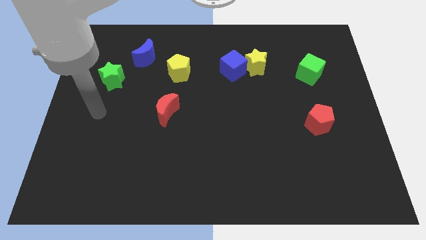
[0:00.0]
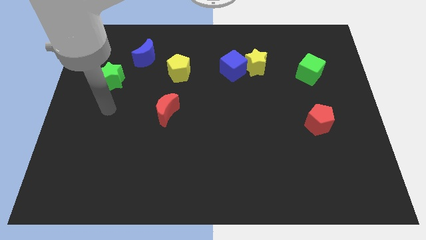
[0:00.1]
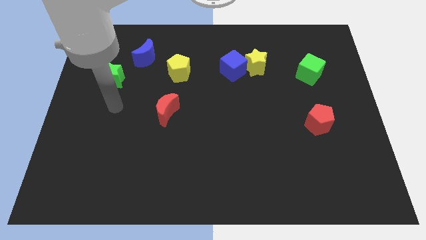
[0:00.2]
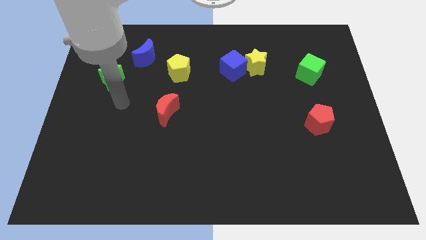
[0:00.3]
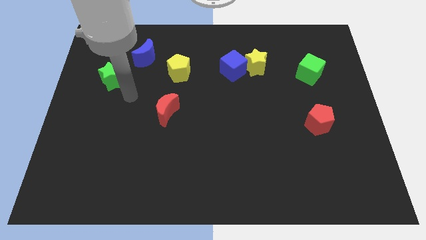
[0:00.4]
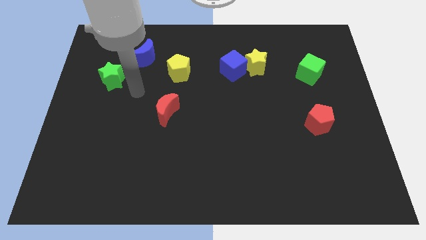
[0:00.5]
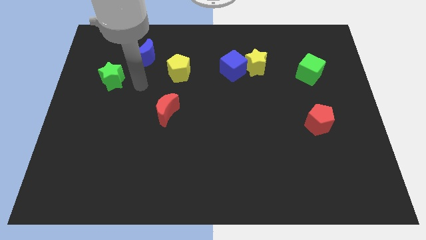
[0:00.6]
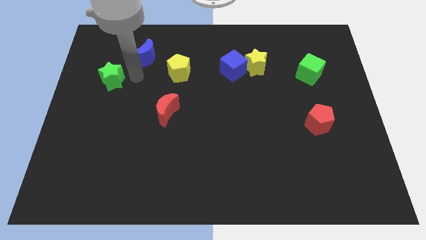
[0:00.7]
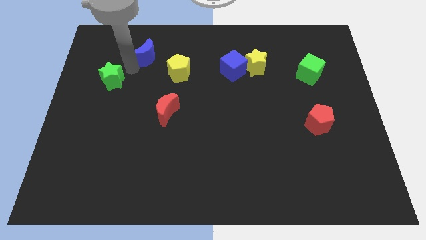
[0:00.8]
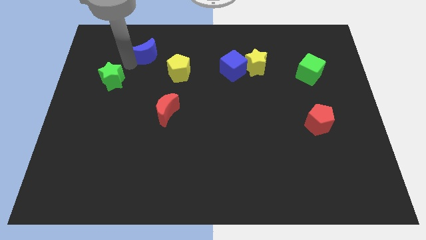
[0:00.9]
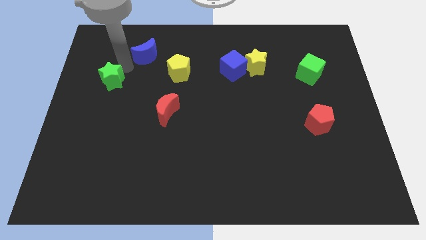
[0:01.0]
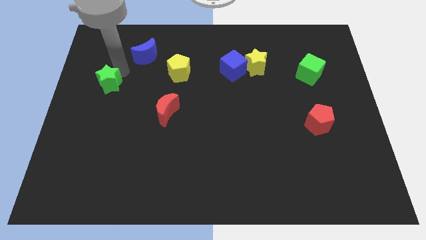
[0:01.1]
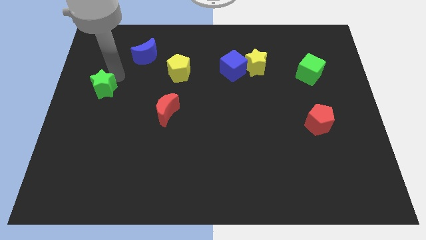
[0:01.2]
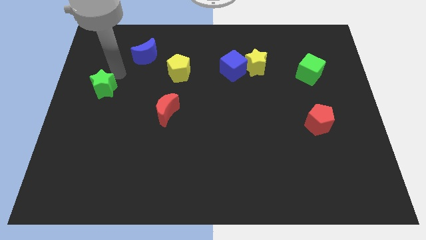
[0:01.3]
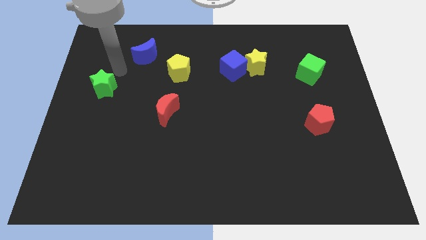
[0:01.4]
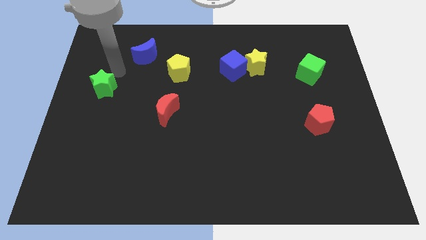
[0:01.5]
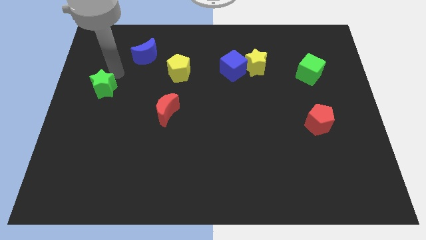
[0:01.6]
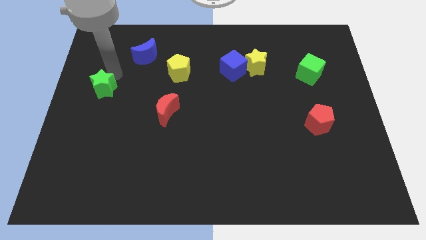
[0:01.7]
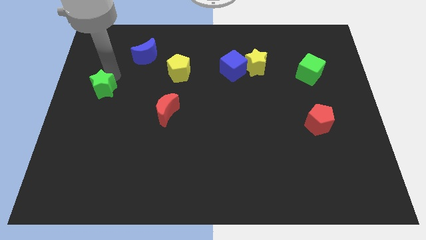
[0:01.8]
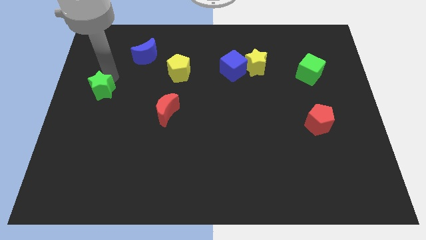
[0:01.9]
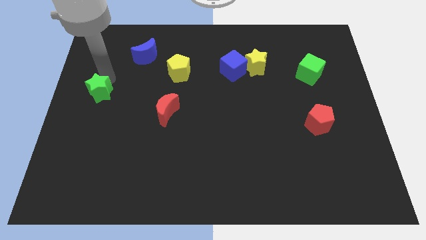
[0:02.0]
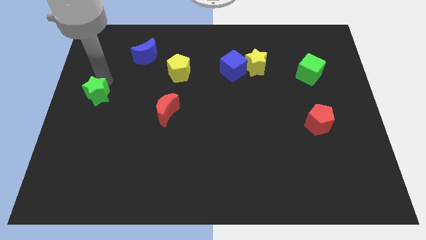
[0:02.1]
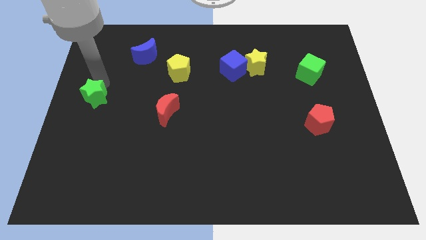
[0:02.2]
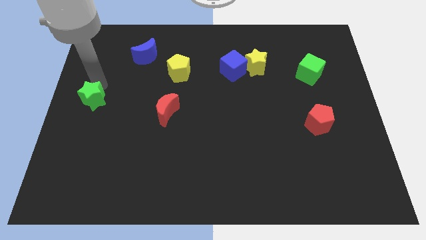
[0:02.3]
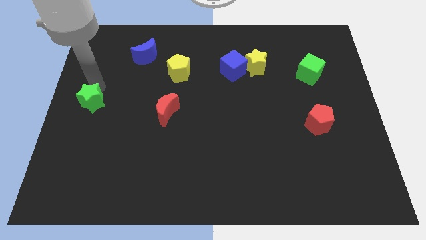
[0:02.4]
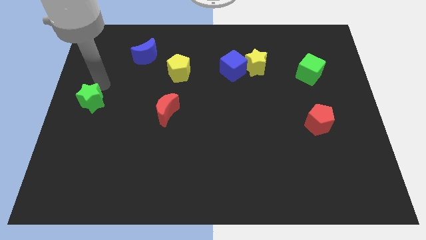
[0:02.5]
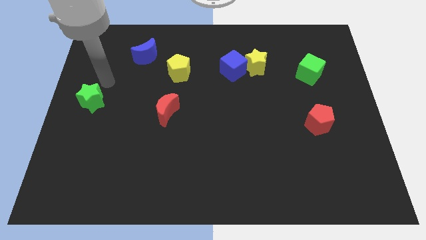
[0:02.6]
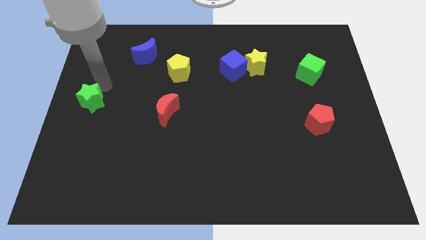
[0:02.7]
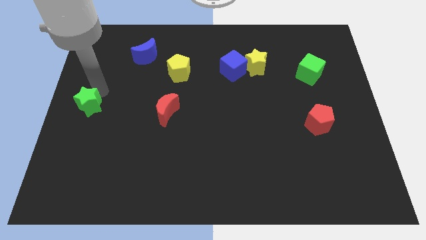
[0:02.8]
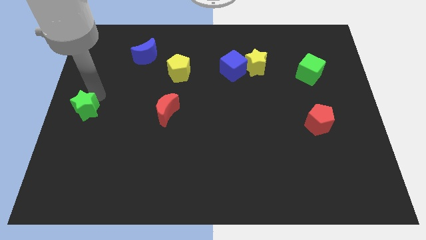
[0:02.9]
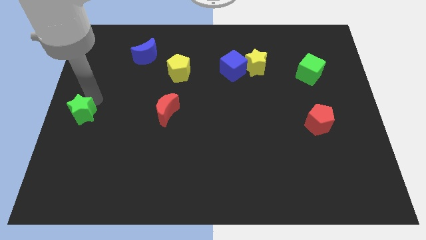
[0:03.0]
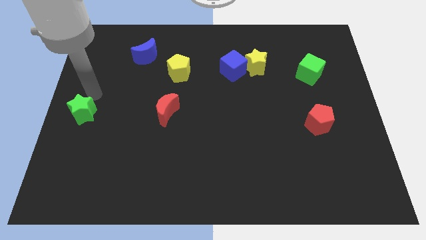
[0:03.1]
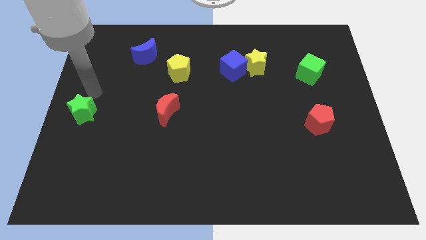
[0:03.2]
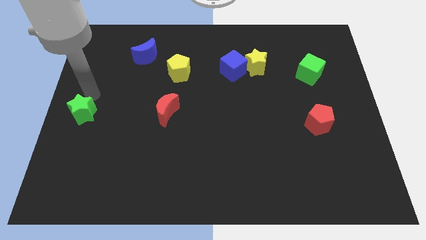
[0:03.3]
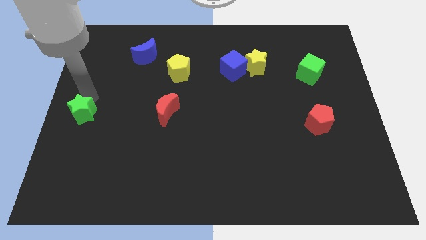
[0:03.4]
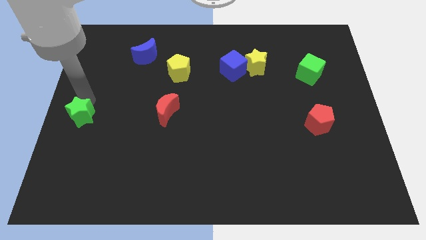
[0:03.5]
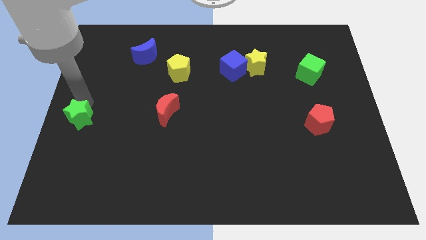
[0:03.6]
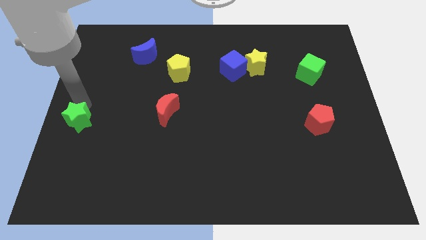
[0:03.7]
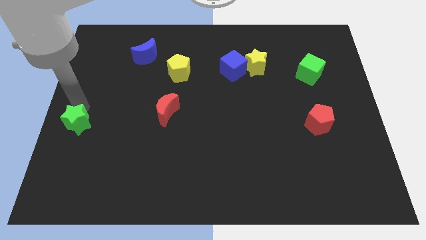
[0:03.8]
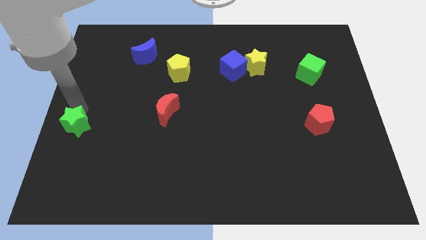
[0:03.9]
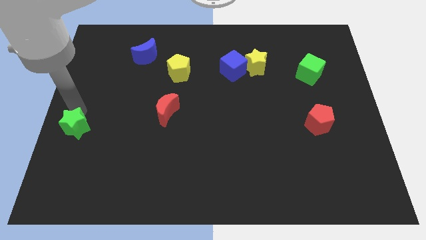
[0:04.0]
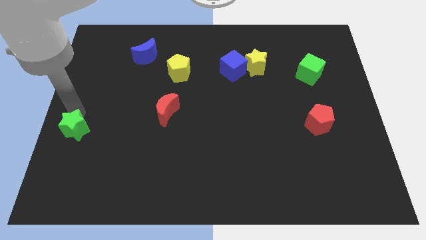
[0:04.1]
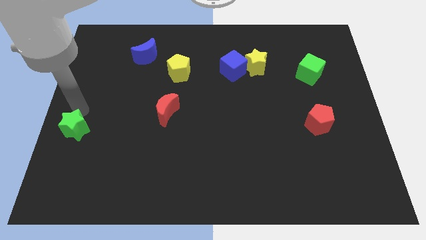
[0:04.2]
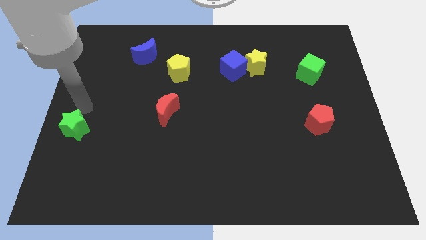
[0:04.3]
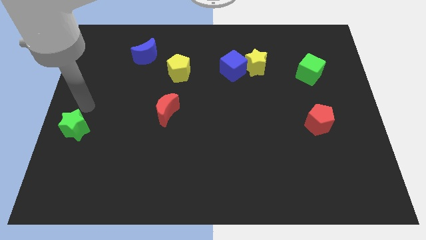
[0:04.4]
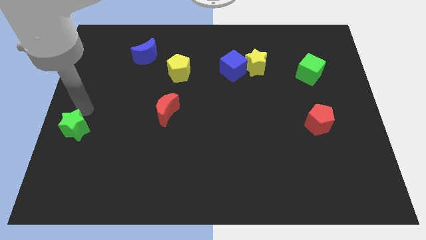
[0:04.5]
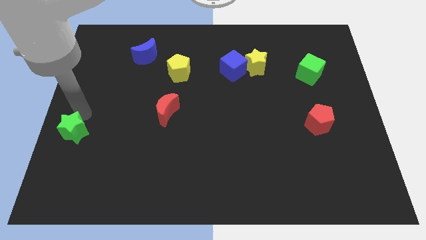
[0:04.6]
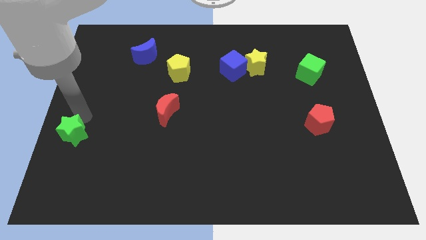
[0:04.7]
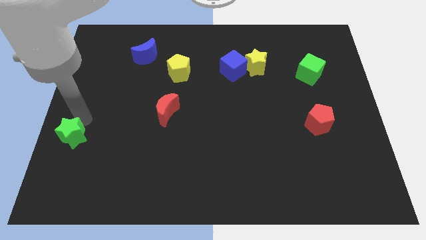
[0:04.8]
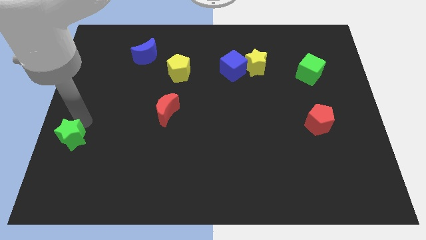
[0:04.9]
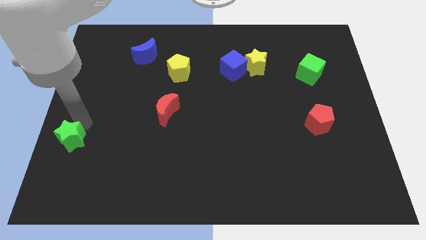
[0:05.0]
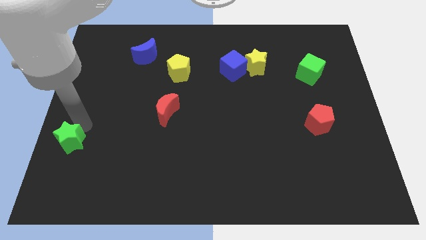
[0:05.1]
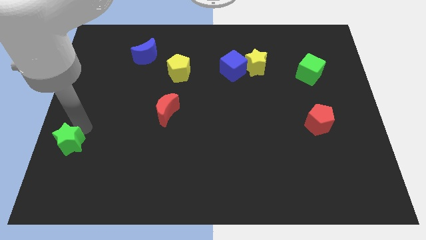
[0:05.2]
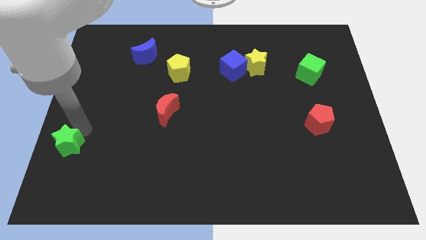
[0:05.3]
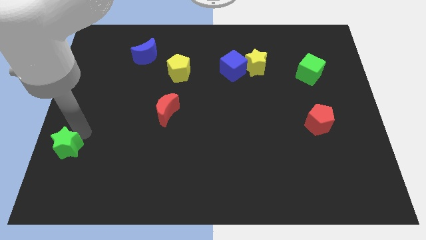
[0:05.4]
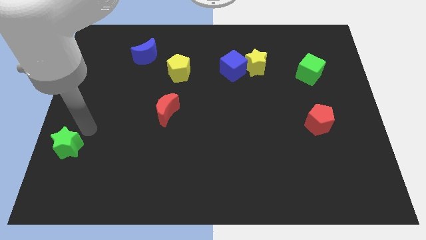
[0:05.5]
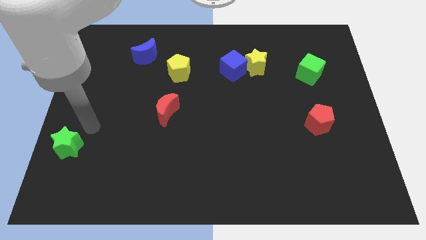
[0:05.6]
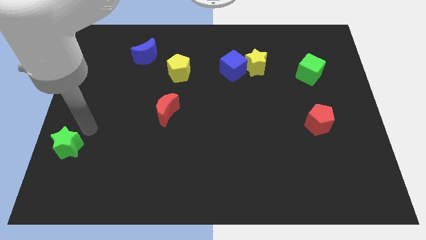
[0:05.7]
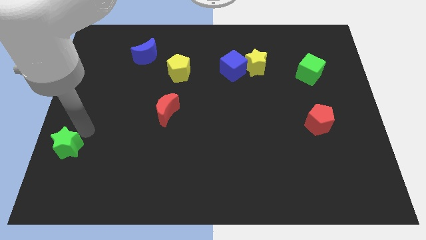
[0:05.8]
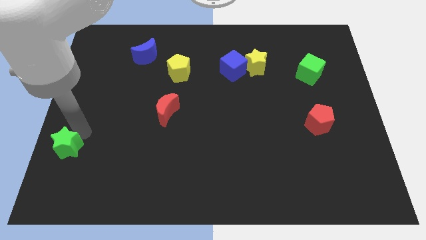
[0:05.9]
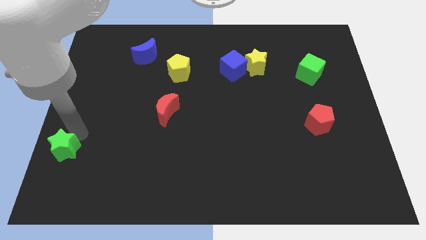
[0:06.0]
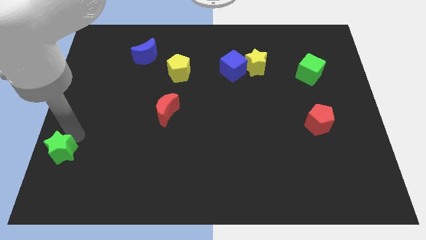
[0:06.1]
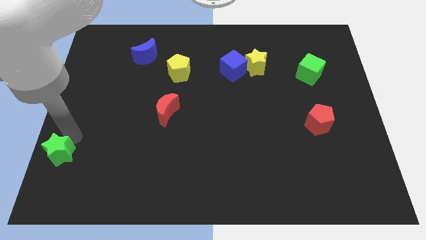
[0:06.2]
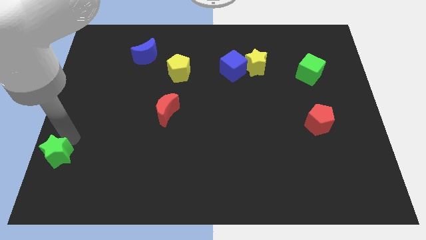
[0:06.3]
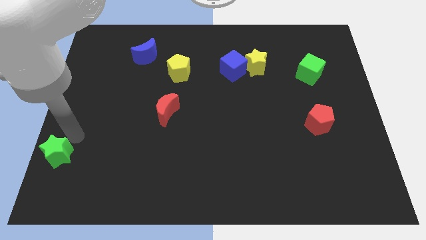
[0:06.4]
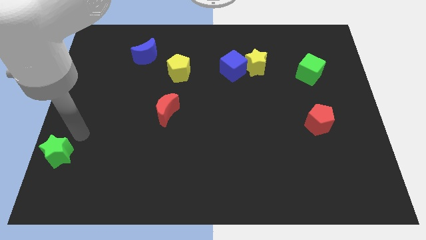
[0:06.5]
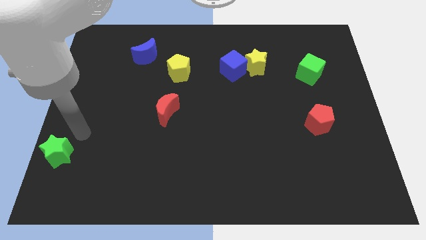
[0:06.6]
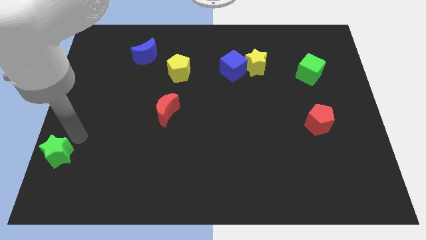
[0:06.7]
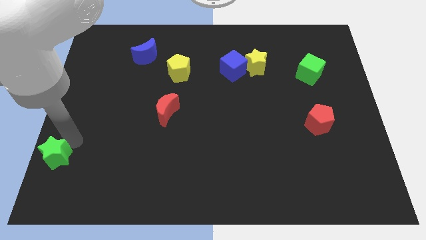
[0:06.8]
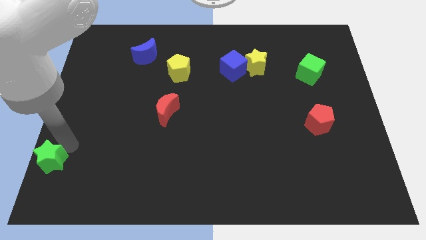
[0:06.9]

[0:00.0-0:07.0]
push the green star to the bottom left of the board
